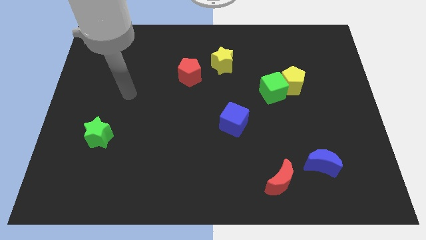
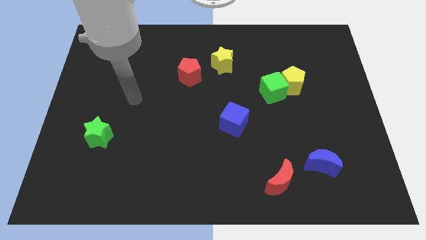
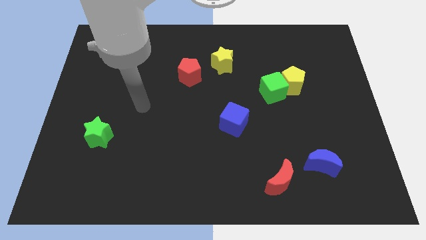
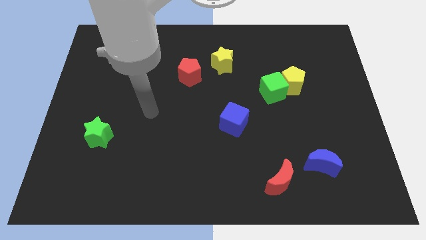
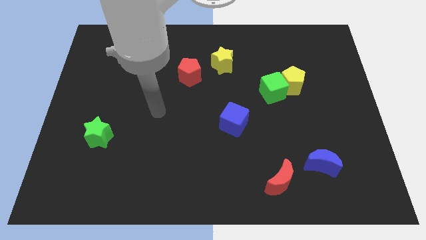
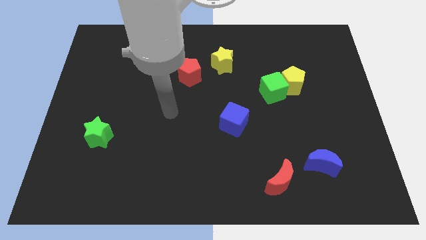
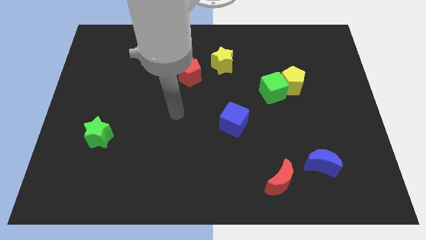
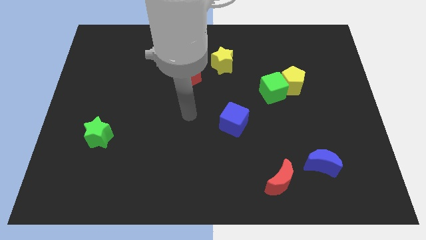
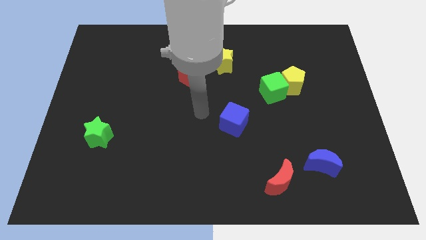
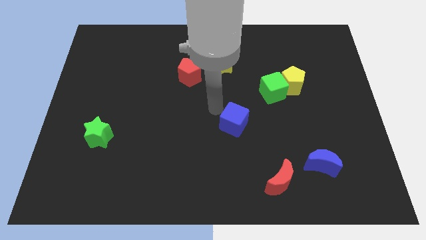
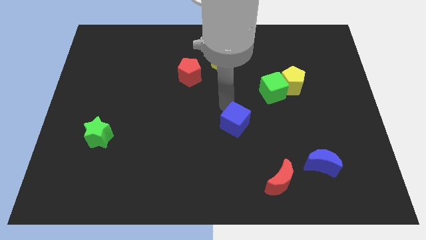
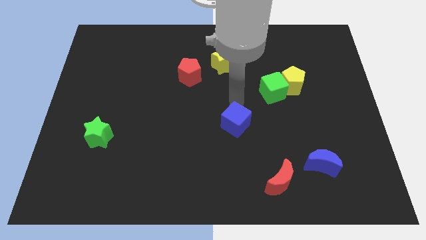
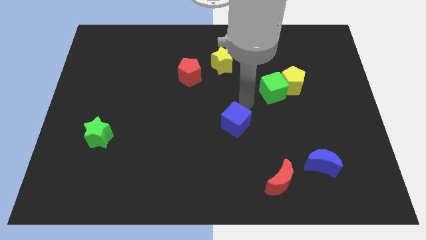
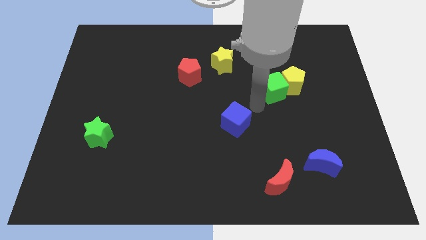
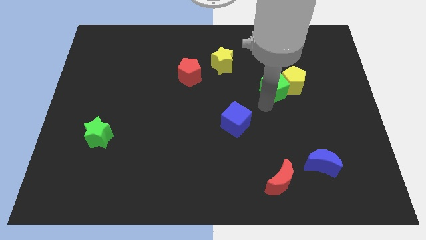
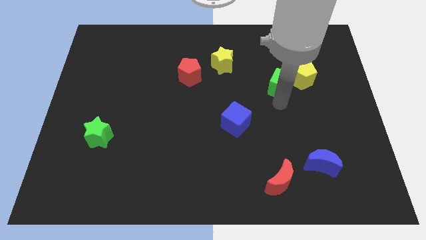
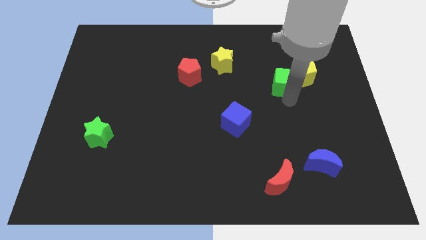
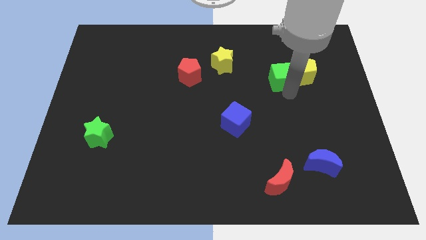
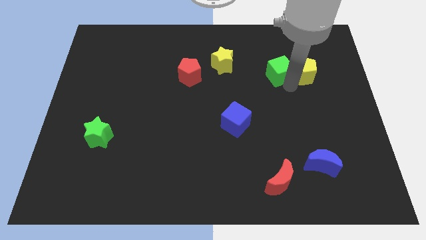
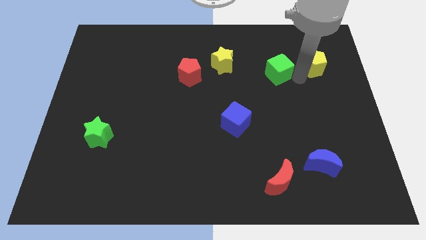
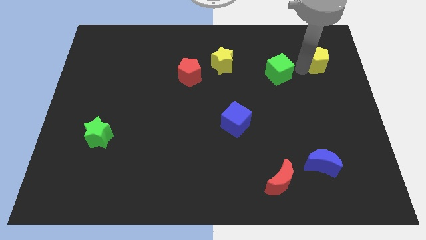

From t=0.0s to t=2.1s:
move the green cube away from the yellow pentagon

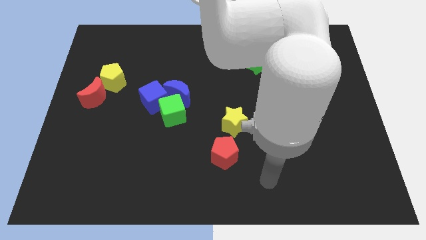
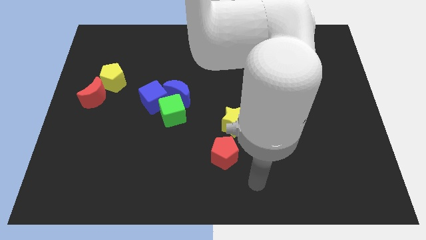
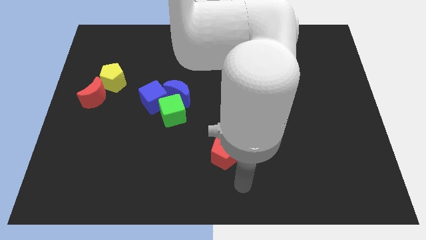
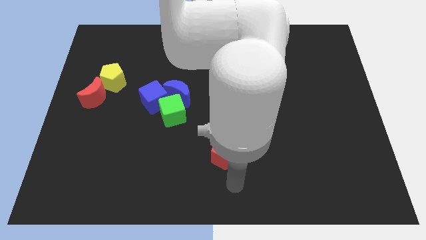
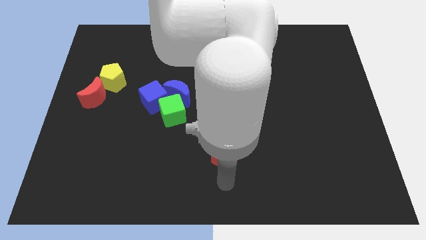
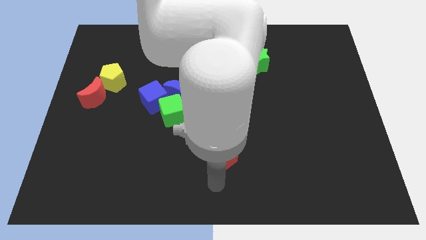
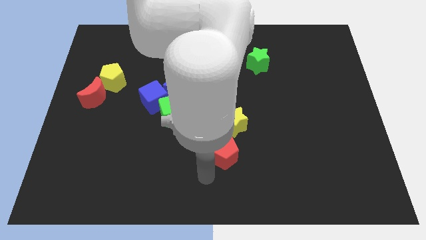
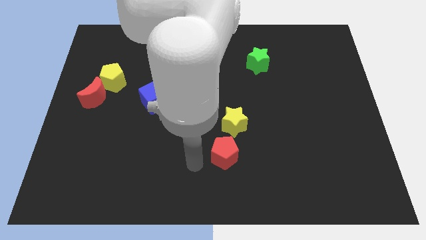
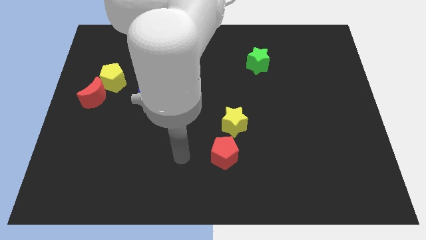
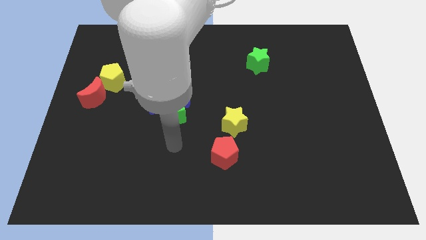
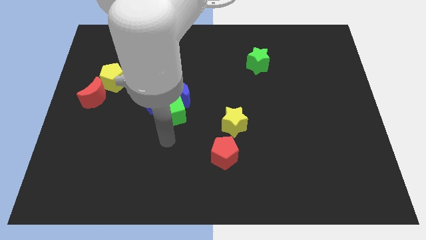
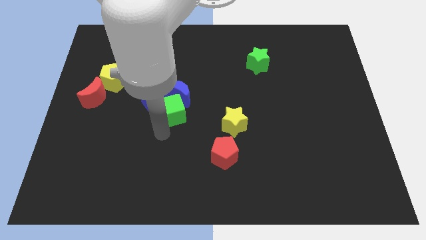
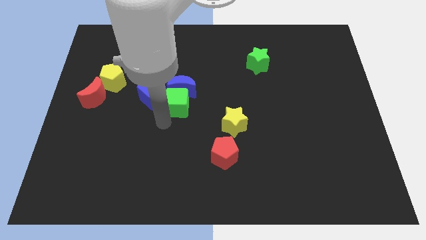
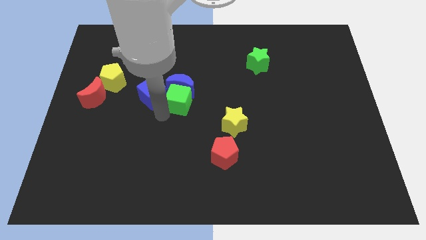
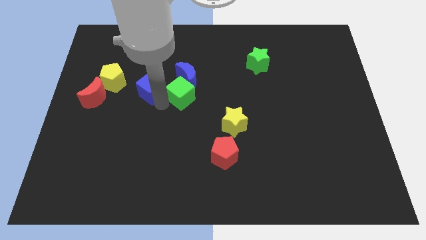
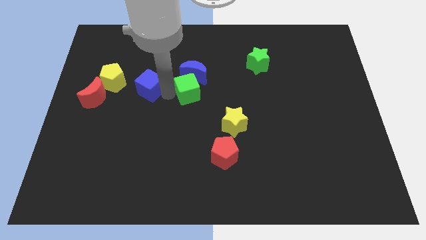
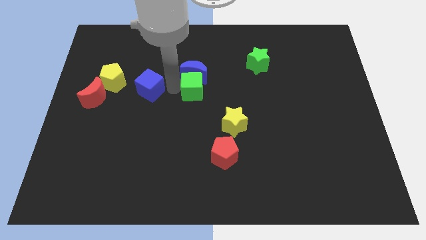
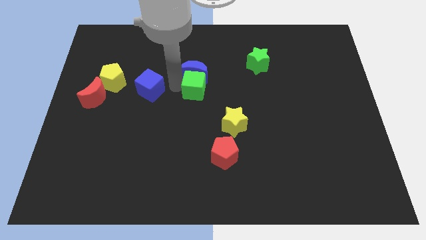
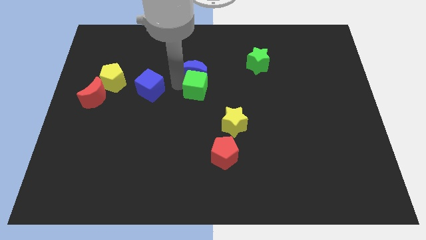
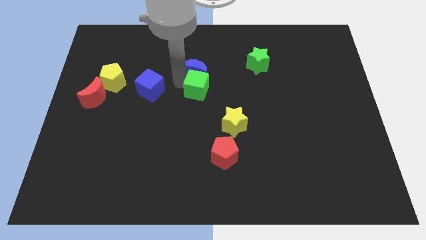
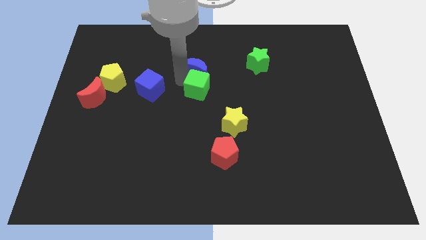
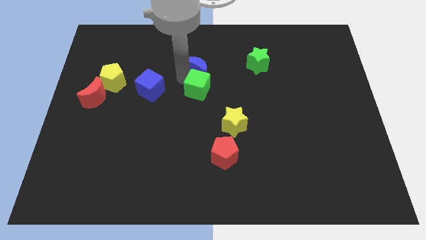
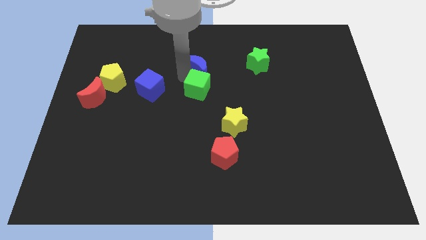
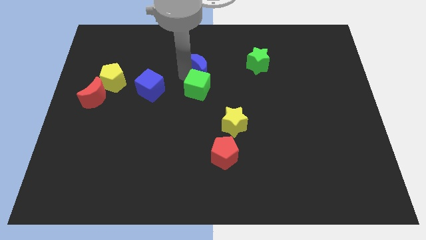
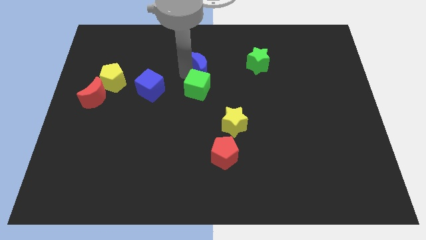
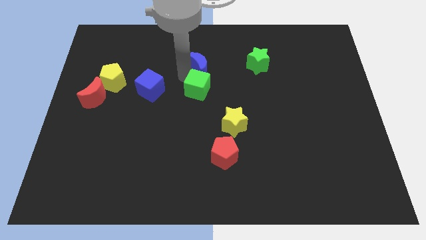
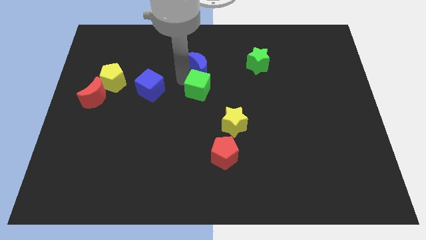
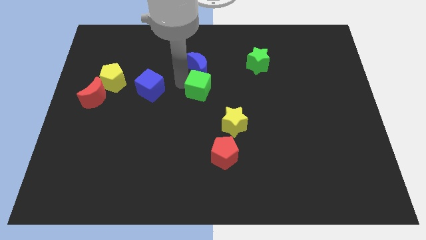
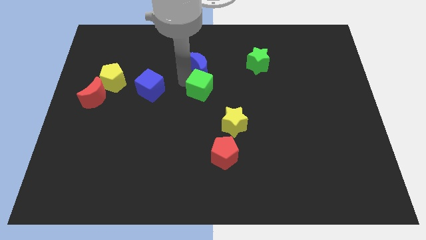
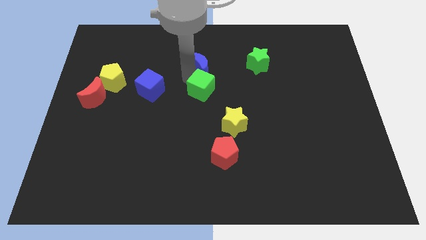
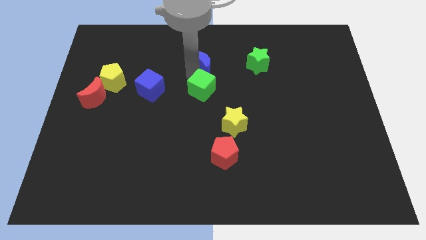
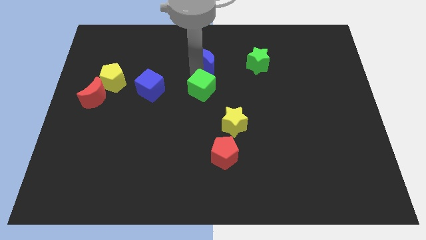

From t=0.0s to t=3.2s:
separate the blue moon from the green cube and blue cube

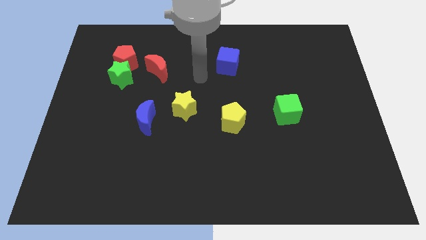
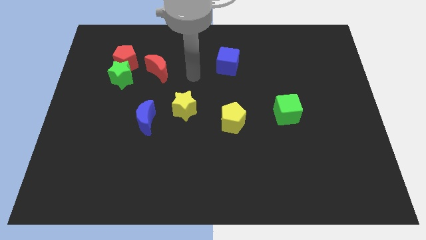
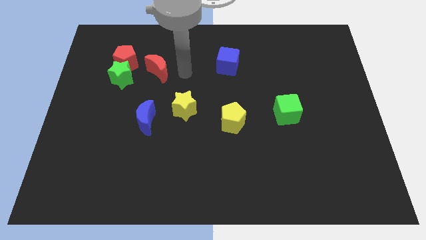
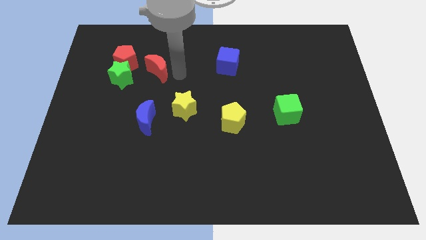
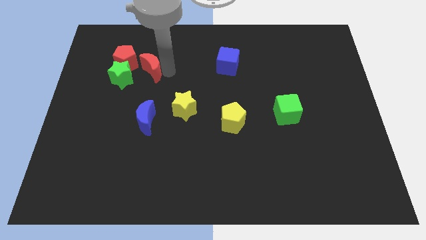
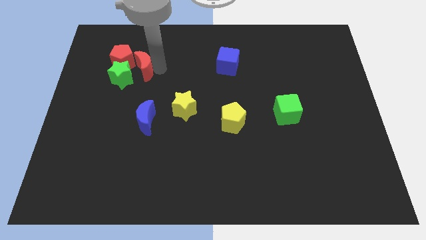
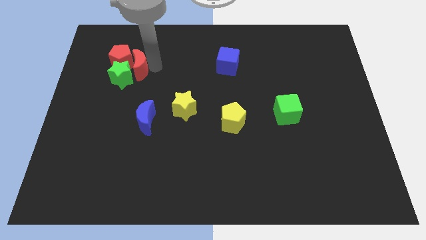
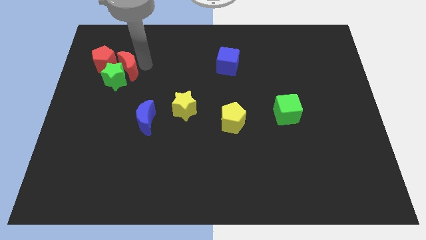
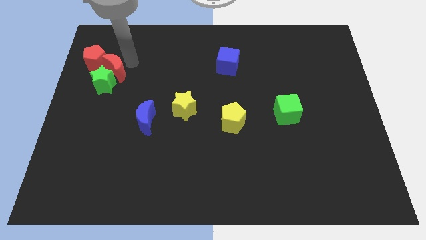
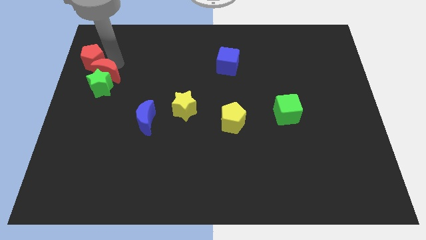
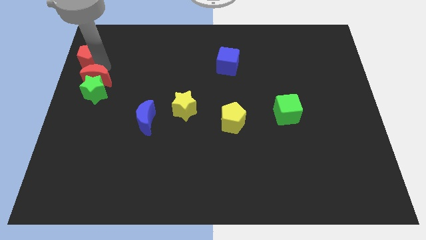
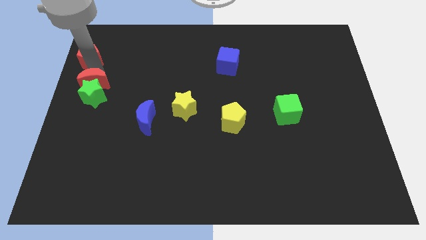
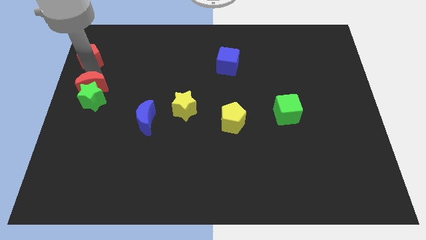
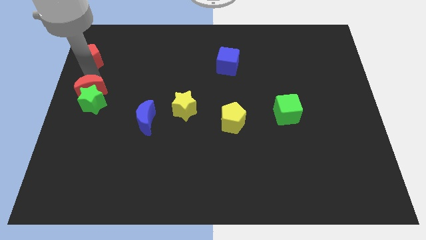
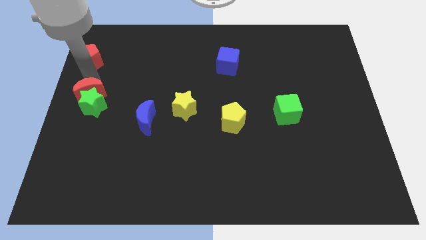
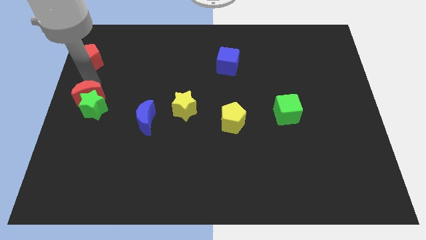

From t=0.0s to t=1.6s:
pull the green star apart from the red pentagon and red moon

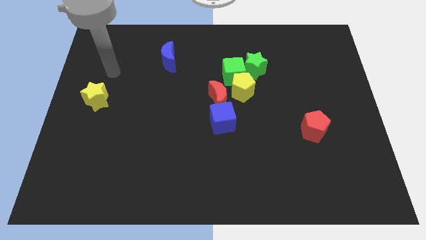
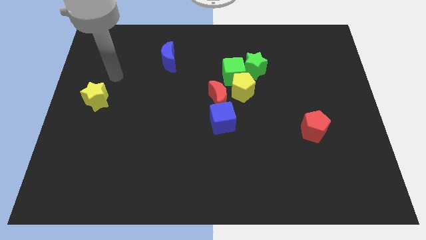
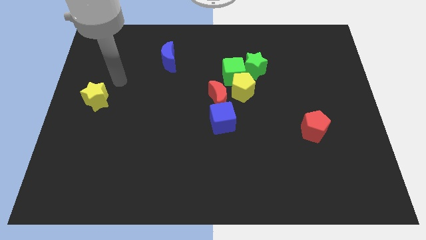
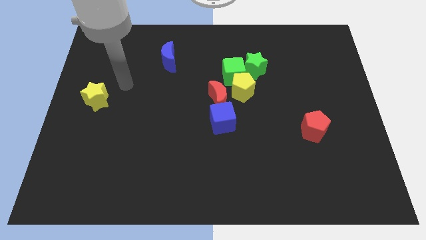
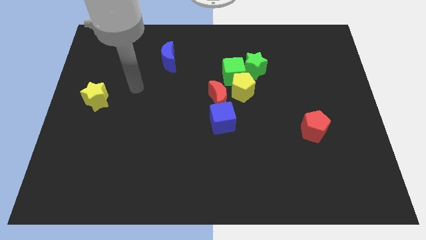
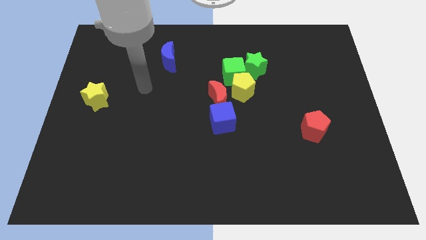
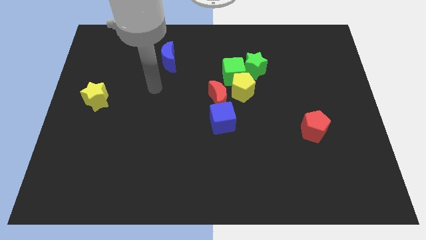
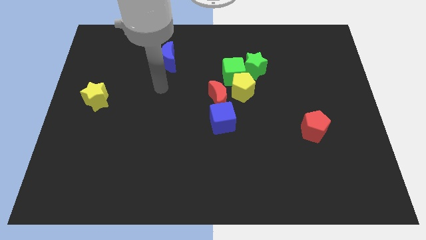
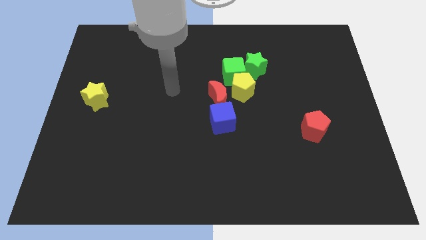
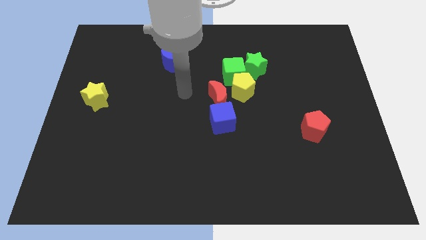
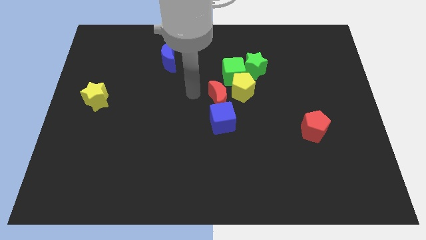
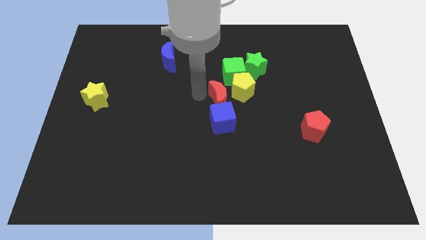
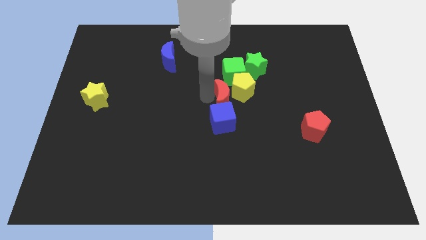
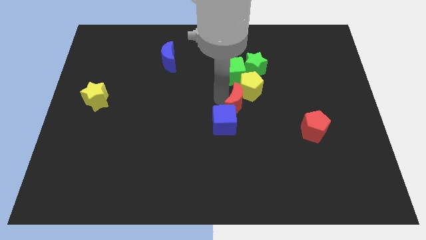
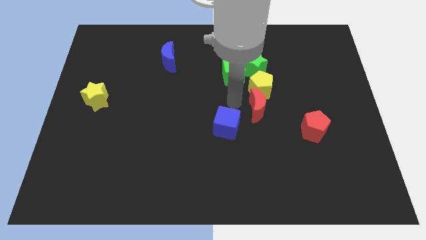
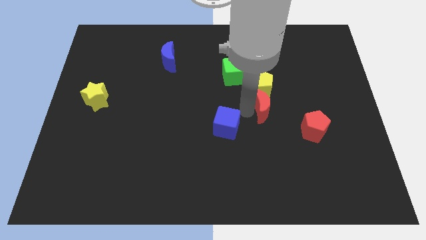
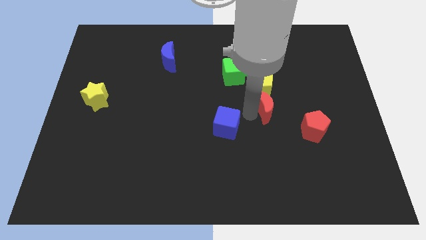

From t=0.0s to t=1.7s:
move the blue cube away from the red moon

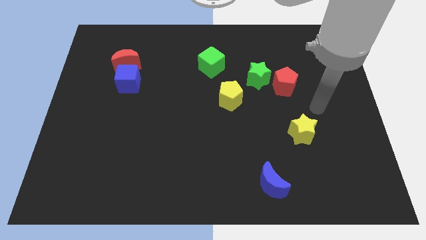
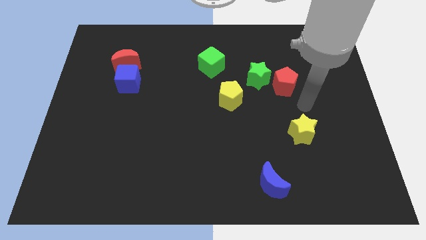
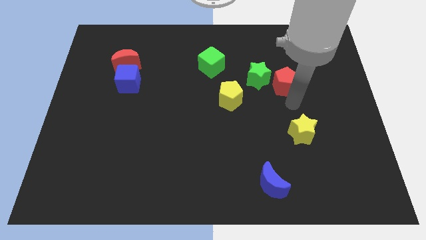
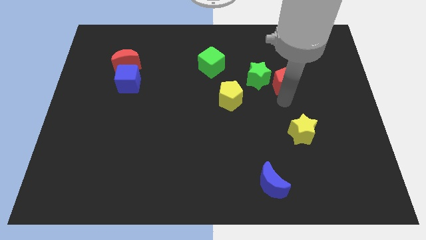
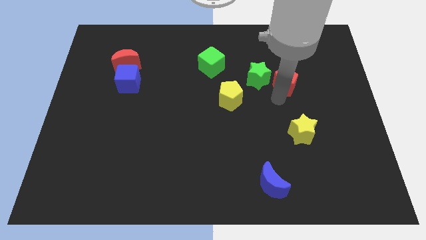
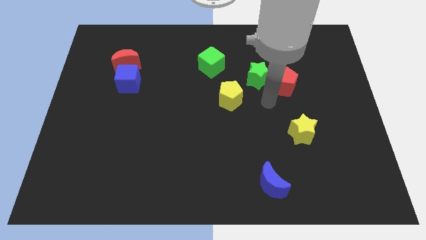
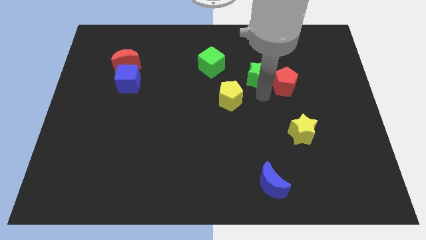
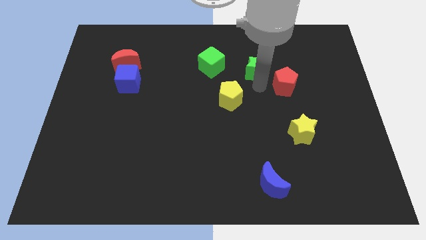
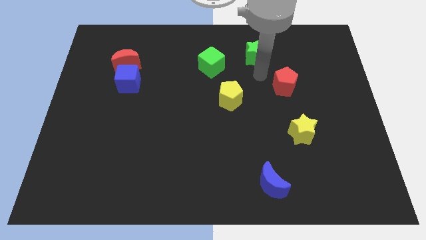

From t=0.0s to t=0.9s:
pull the red pentagon apart from the green star
